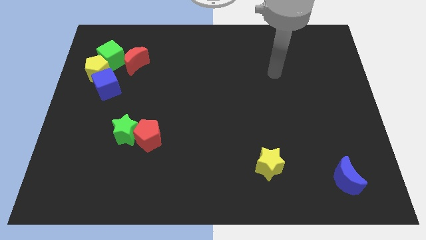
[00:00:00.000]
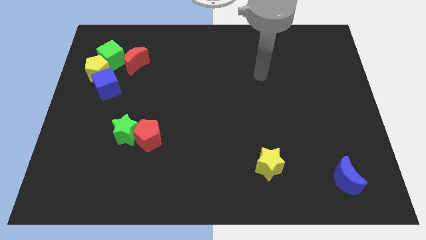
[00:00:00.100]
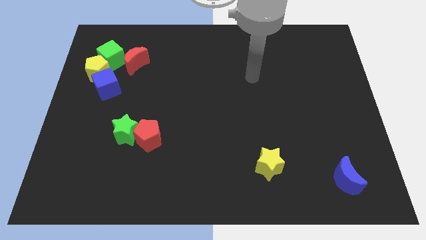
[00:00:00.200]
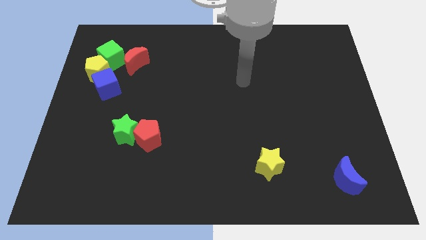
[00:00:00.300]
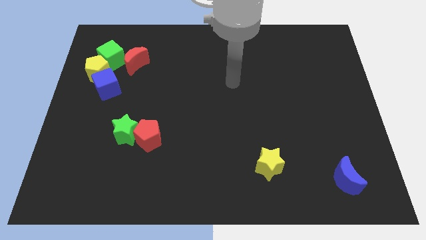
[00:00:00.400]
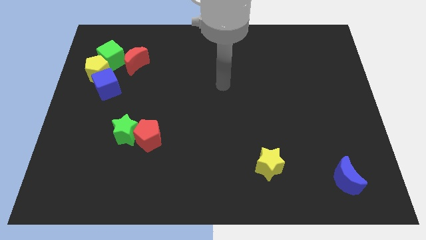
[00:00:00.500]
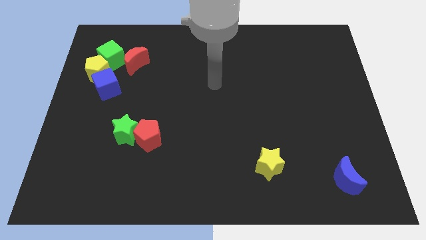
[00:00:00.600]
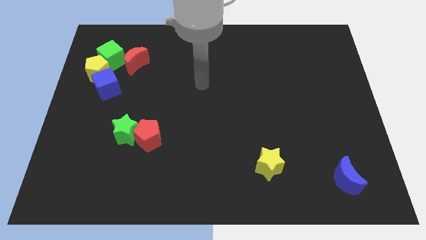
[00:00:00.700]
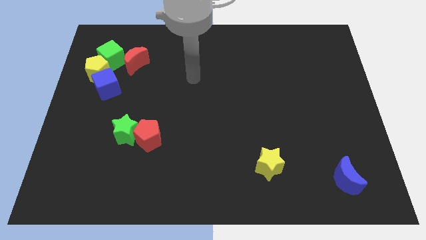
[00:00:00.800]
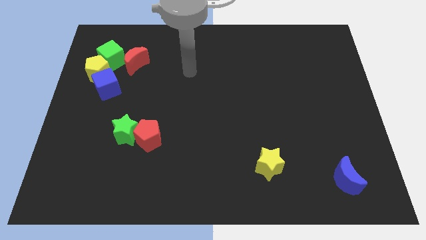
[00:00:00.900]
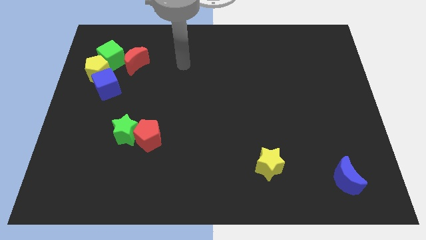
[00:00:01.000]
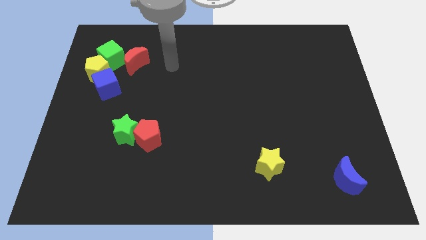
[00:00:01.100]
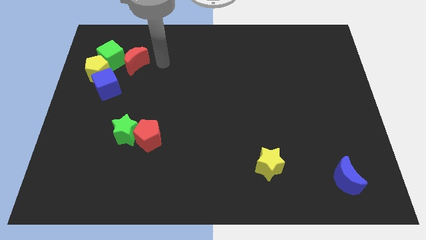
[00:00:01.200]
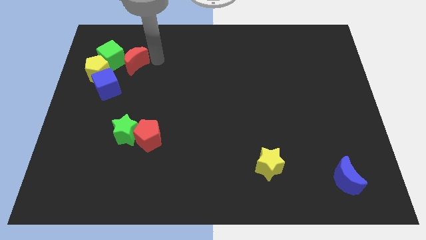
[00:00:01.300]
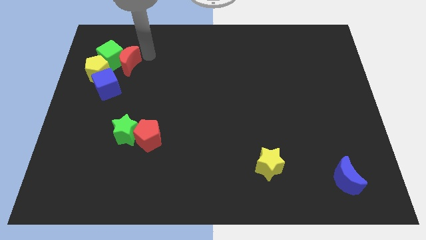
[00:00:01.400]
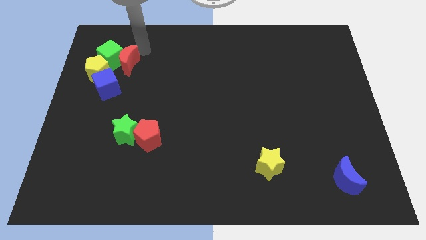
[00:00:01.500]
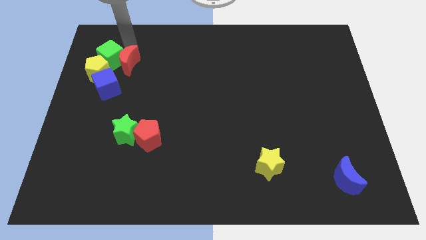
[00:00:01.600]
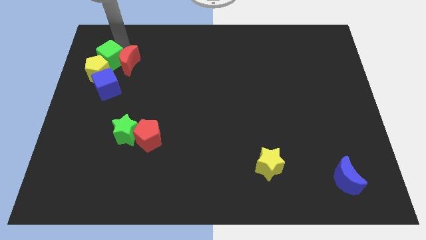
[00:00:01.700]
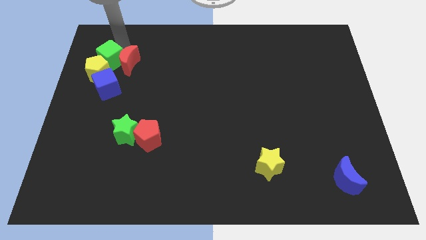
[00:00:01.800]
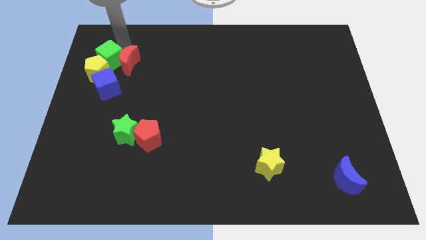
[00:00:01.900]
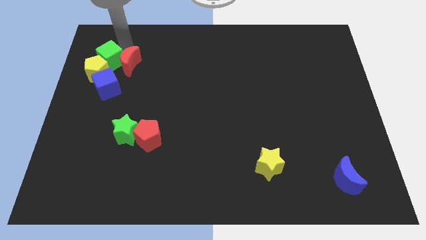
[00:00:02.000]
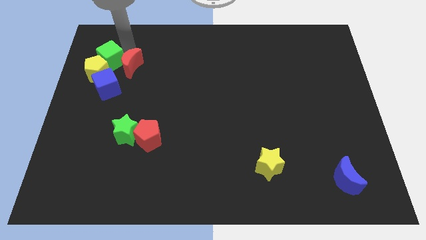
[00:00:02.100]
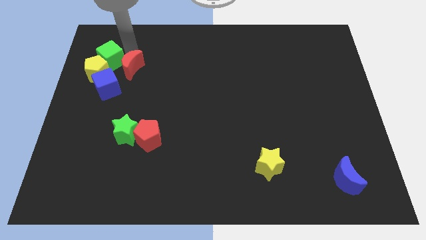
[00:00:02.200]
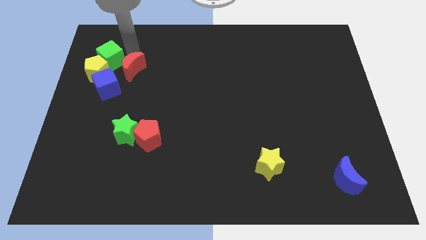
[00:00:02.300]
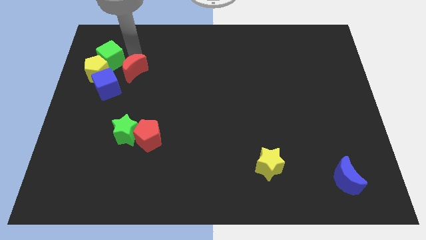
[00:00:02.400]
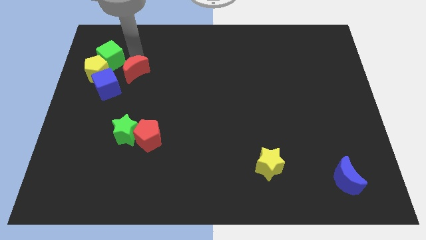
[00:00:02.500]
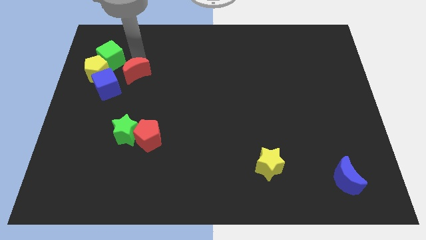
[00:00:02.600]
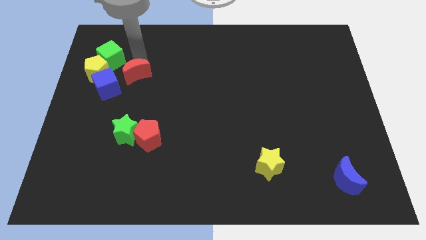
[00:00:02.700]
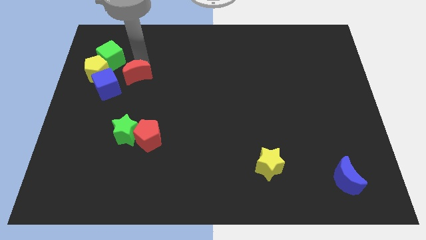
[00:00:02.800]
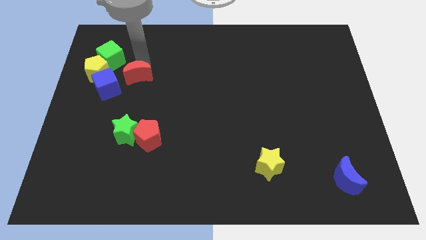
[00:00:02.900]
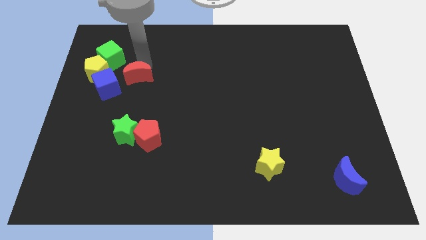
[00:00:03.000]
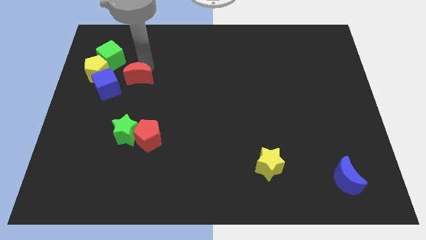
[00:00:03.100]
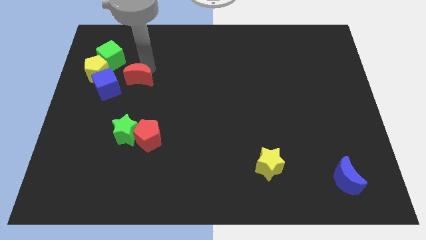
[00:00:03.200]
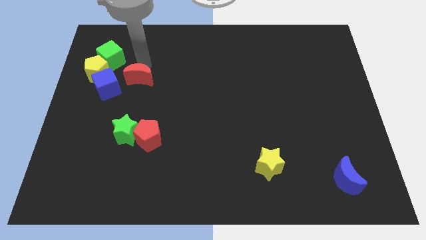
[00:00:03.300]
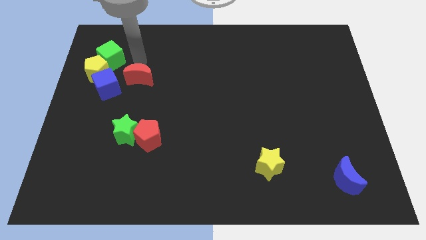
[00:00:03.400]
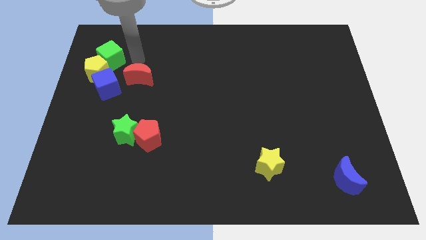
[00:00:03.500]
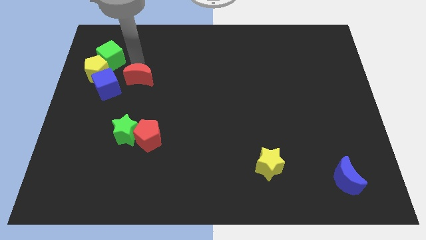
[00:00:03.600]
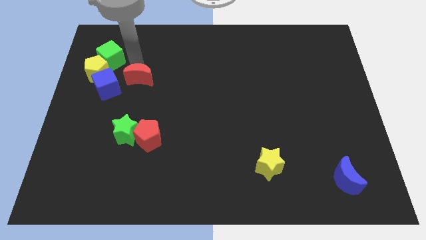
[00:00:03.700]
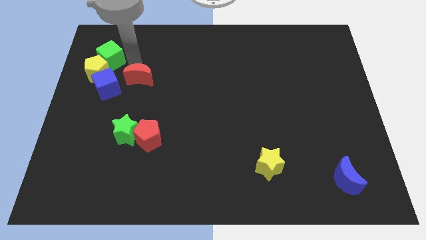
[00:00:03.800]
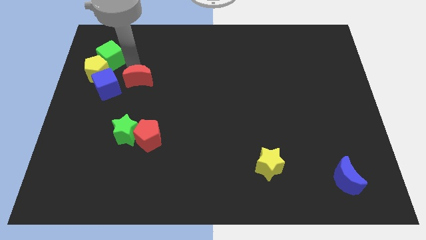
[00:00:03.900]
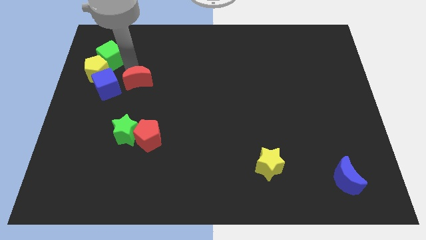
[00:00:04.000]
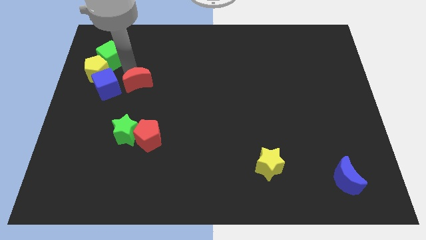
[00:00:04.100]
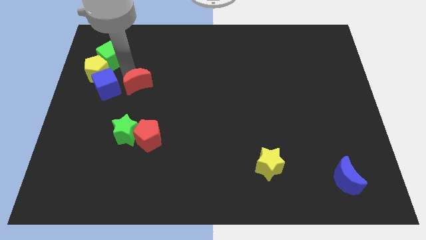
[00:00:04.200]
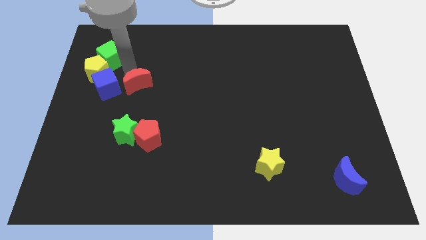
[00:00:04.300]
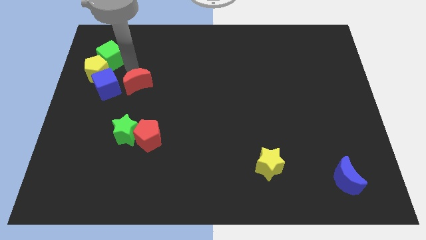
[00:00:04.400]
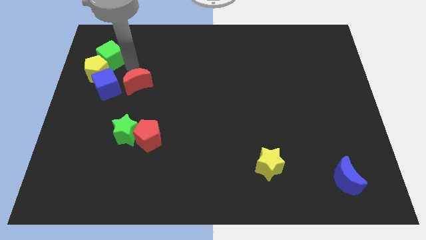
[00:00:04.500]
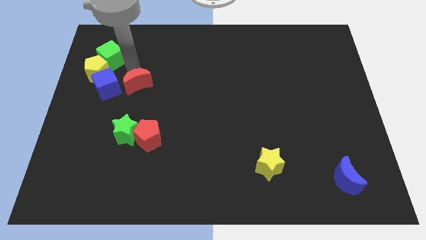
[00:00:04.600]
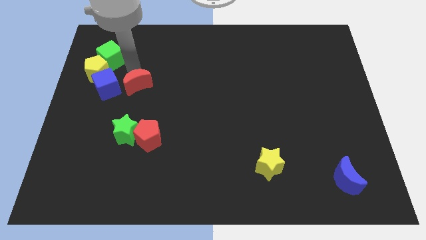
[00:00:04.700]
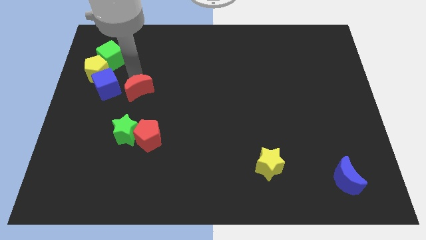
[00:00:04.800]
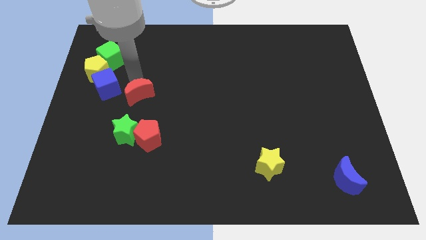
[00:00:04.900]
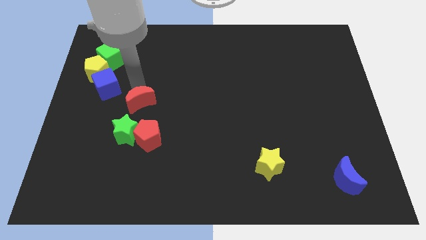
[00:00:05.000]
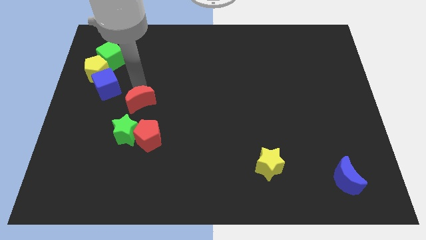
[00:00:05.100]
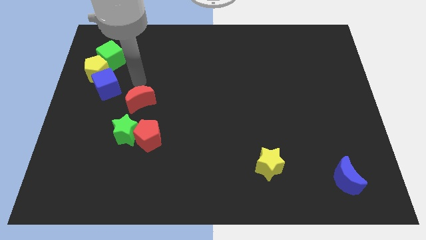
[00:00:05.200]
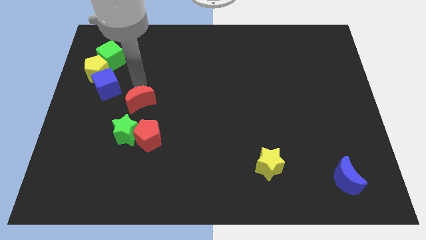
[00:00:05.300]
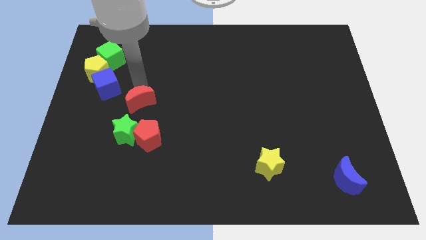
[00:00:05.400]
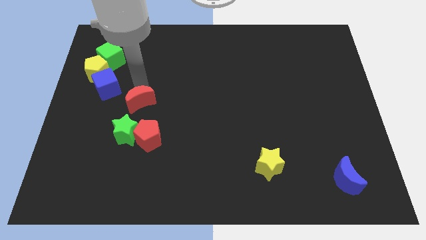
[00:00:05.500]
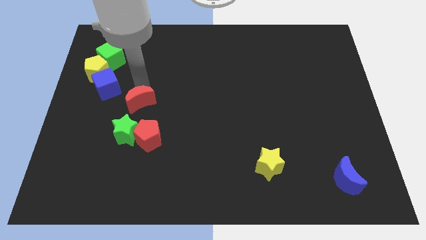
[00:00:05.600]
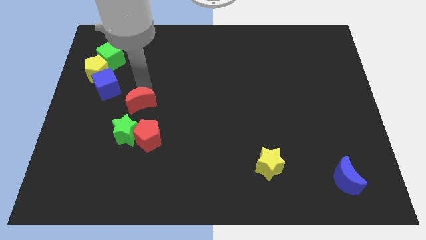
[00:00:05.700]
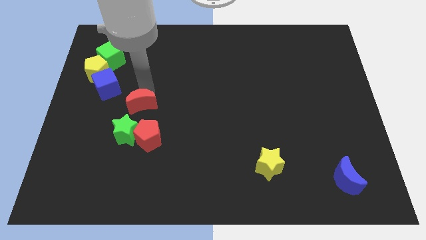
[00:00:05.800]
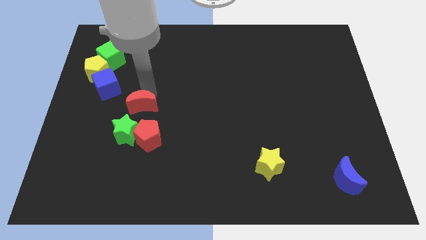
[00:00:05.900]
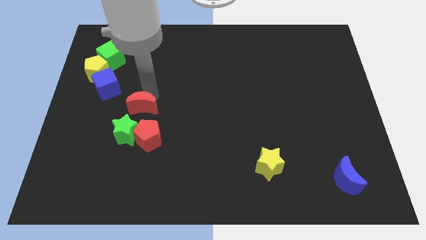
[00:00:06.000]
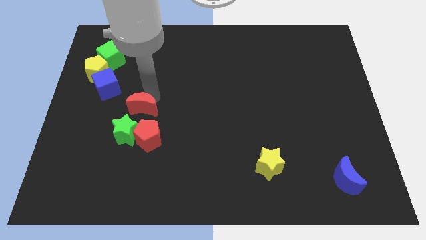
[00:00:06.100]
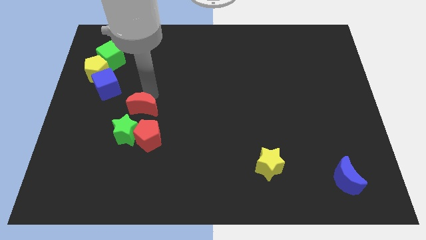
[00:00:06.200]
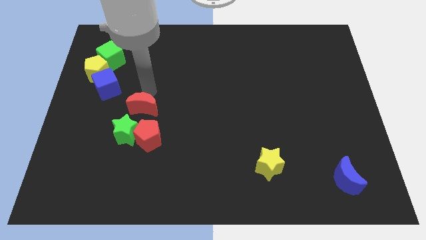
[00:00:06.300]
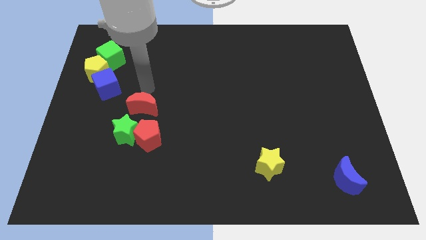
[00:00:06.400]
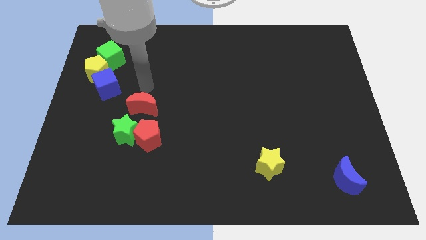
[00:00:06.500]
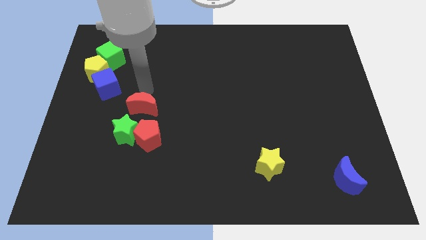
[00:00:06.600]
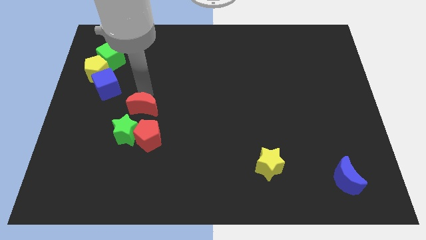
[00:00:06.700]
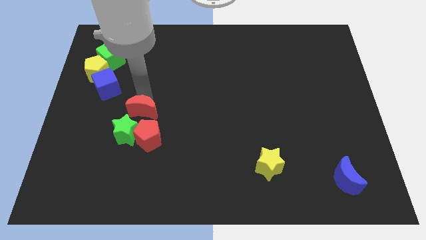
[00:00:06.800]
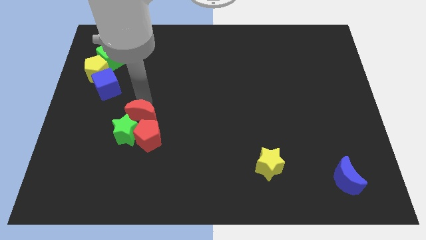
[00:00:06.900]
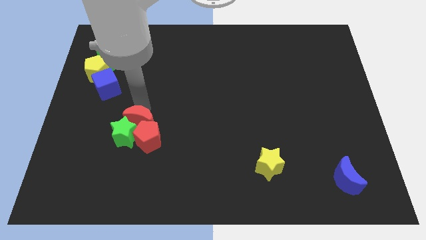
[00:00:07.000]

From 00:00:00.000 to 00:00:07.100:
slide the red moon next to the red pentagon
